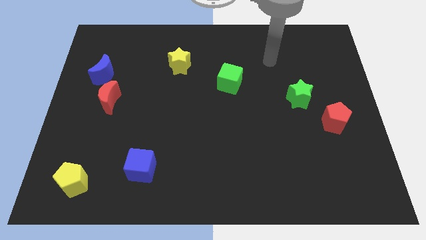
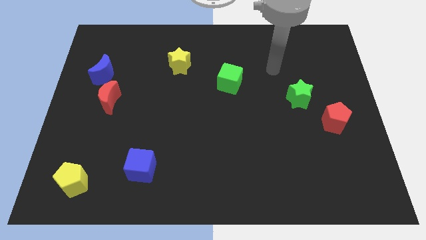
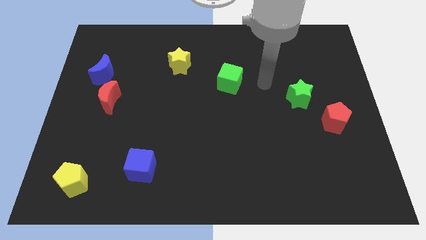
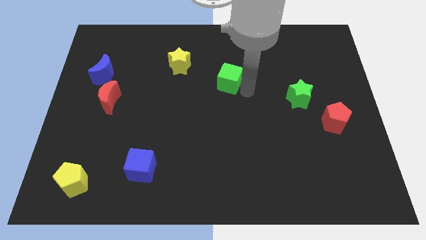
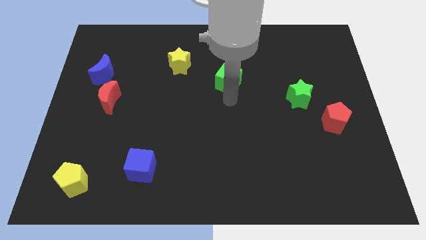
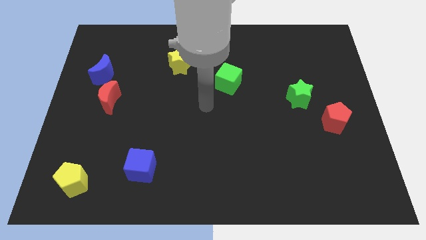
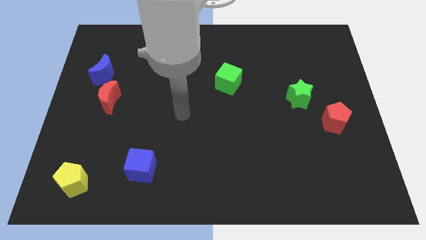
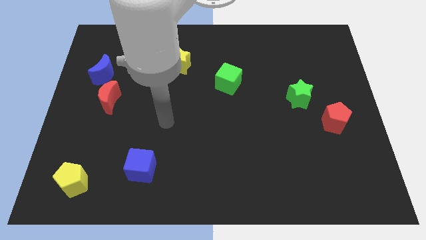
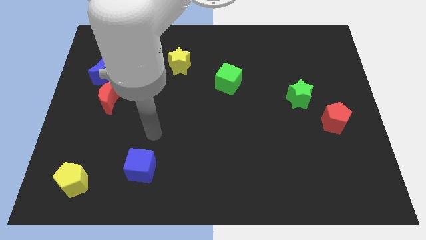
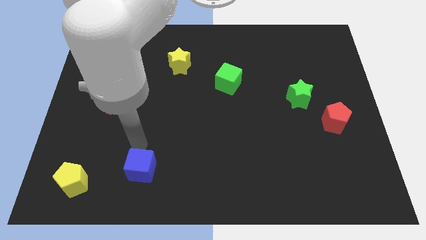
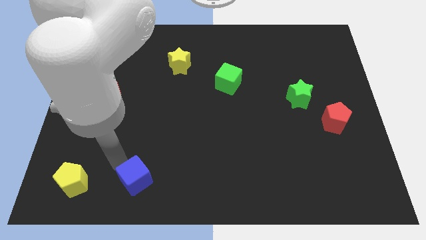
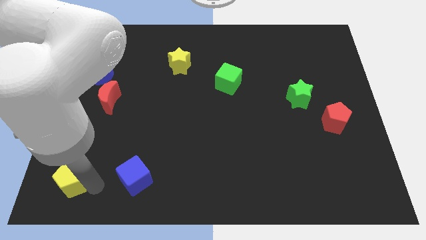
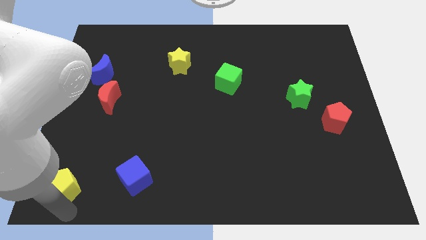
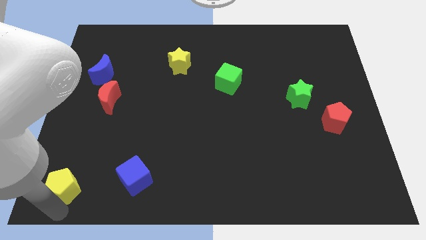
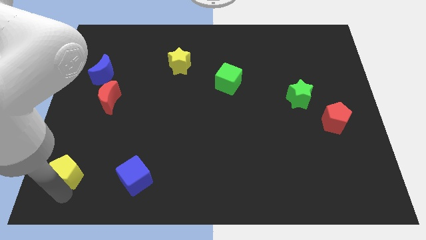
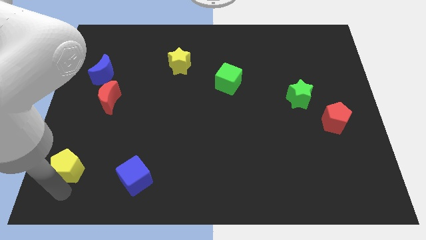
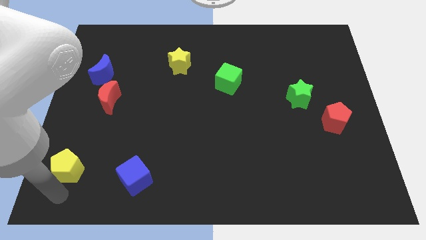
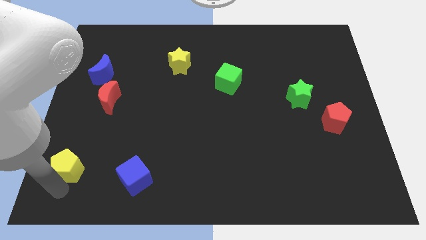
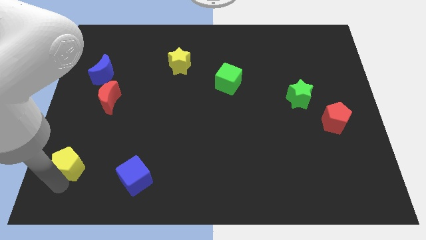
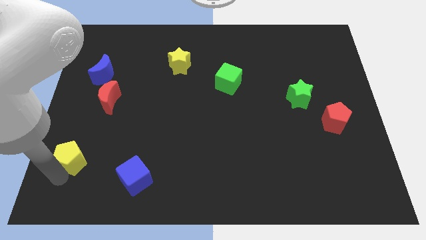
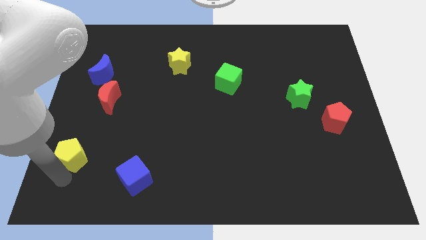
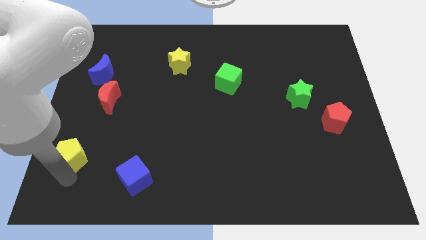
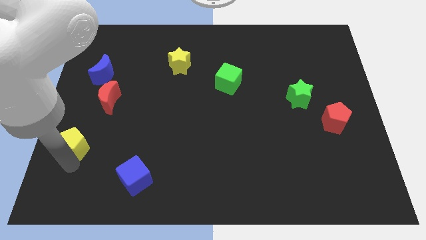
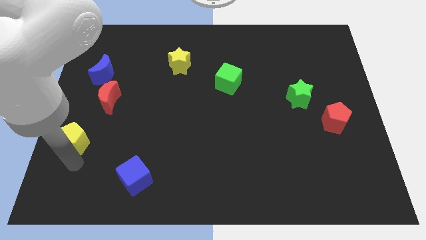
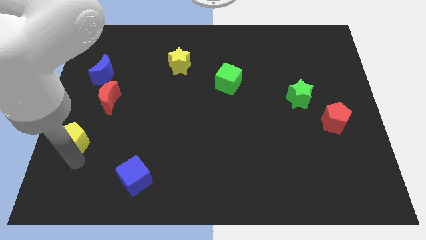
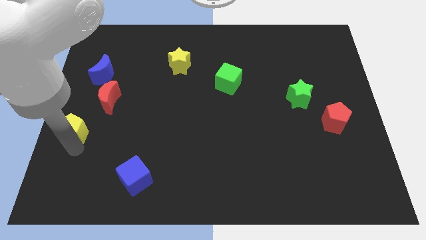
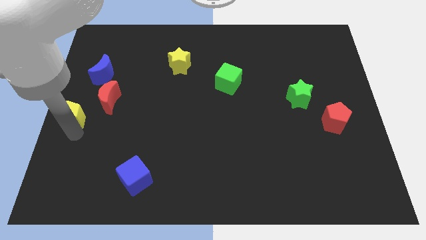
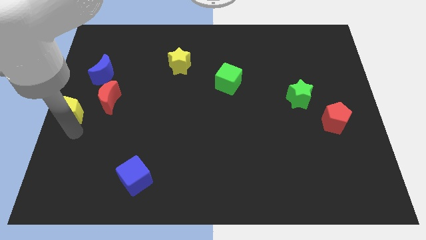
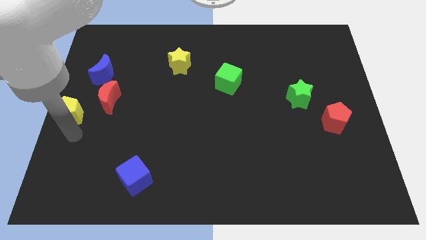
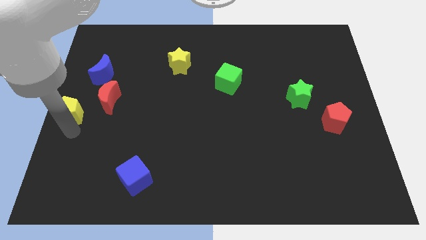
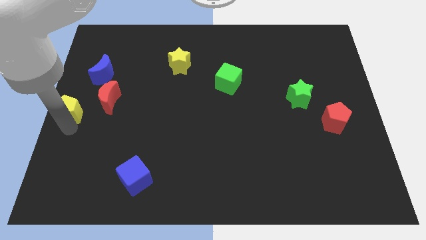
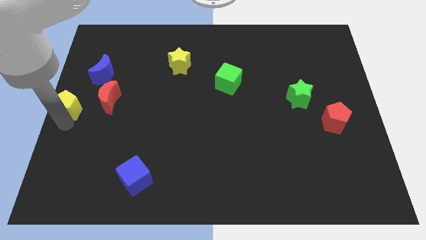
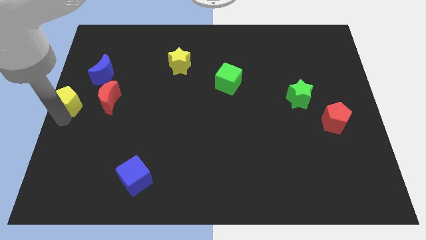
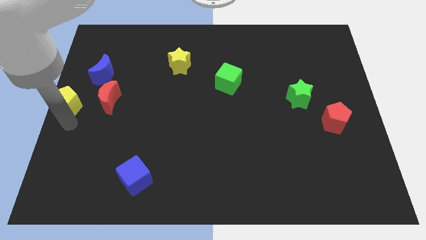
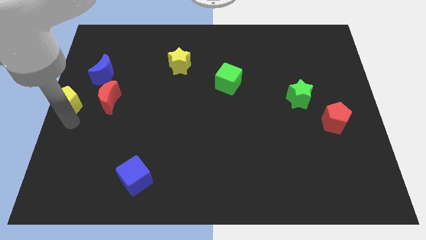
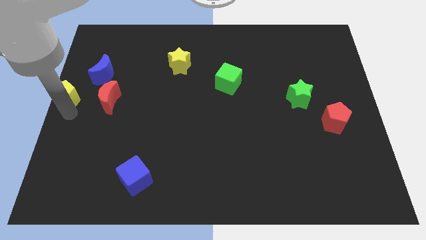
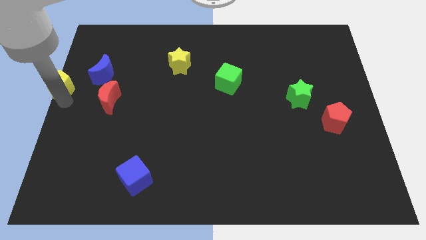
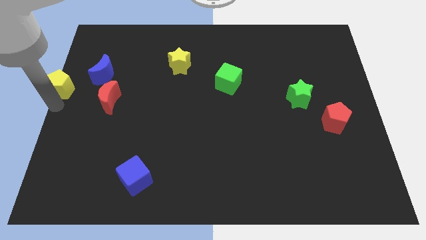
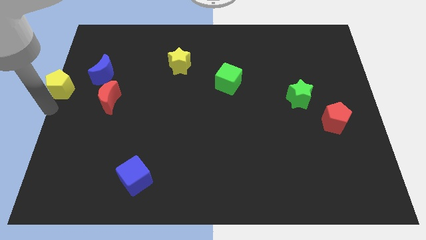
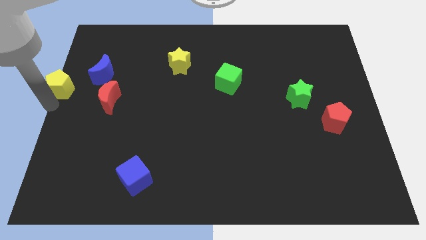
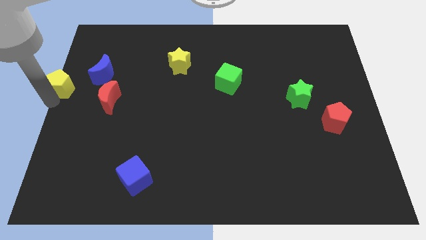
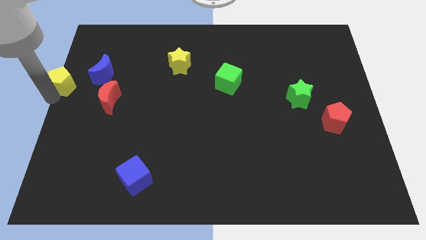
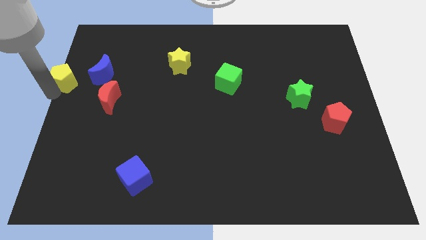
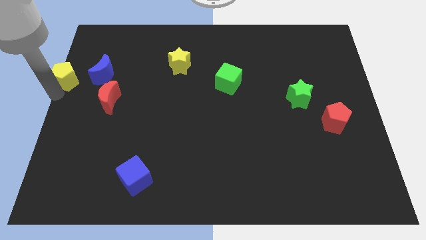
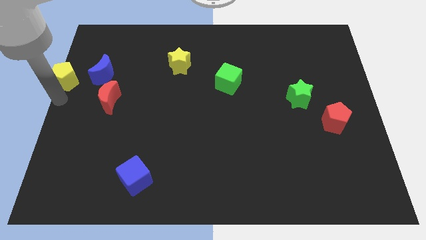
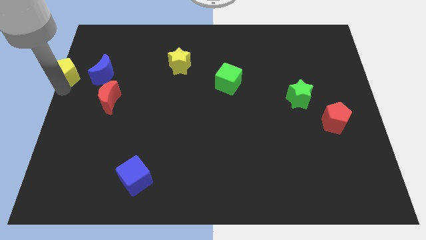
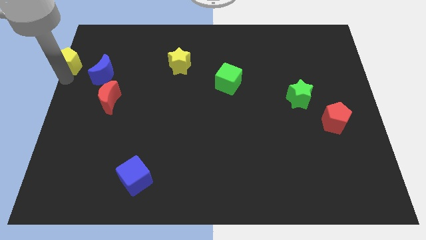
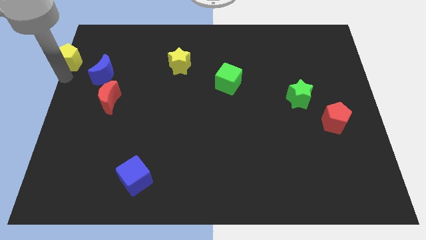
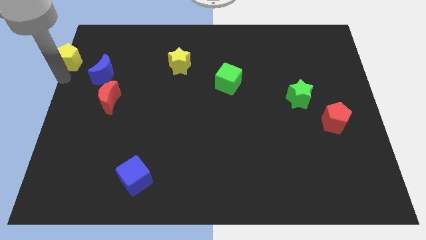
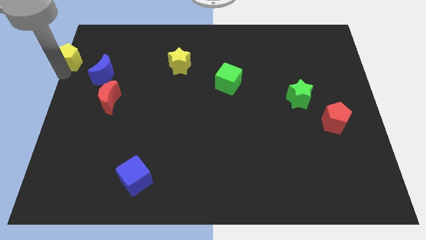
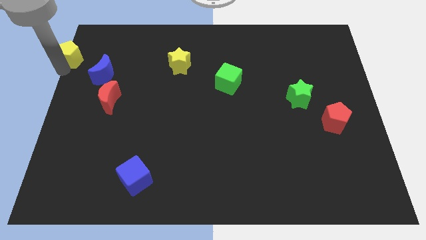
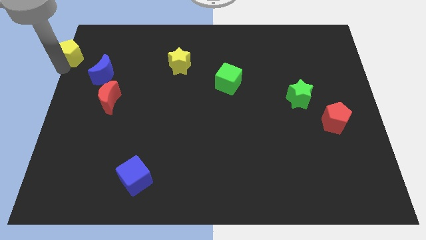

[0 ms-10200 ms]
move the yellow pentagon to the top left of the board
